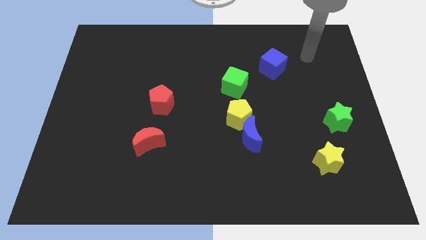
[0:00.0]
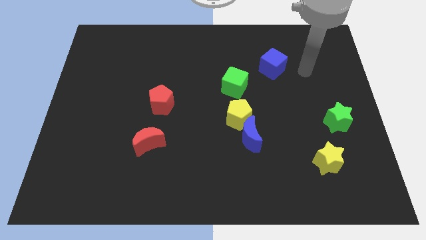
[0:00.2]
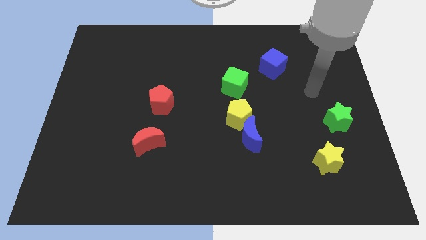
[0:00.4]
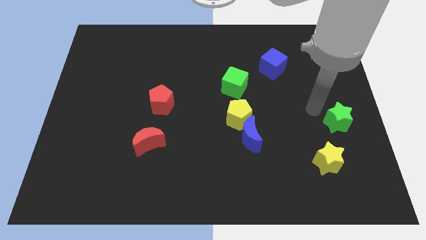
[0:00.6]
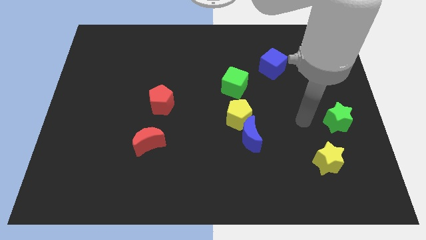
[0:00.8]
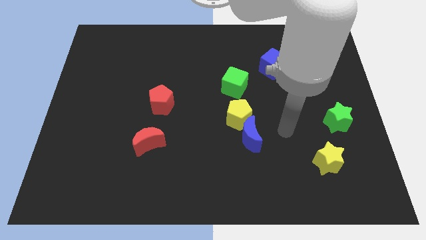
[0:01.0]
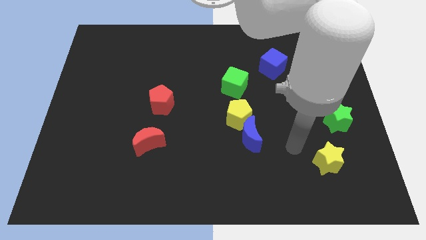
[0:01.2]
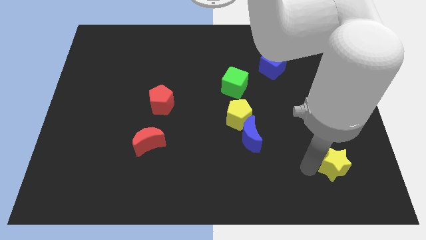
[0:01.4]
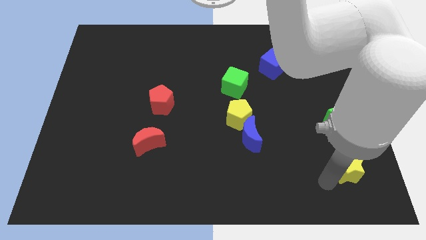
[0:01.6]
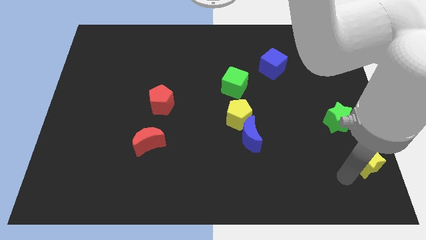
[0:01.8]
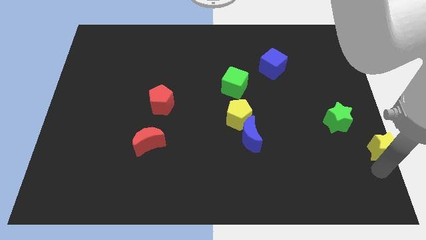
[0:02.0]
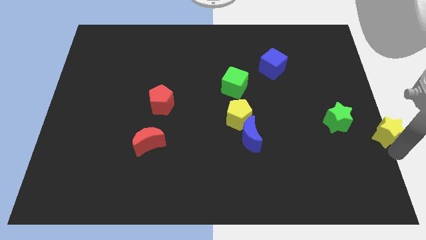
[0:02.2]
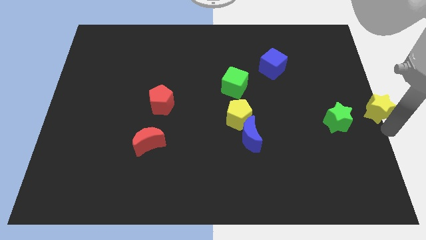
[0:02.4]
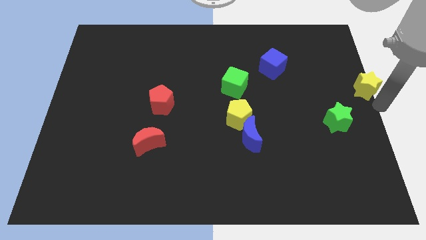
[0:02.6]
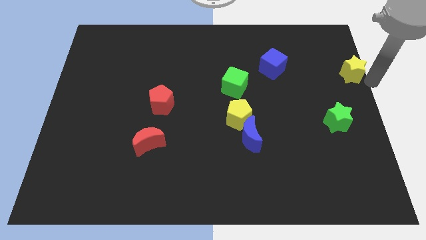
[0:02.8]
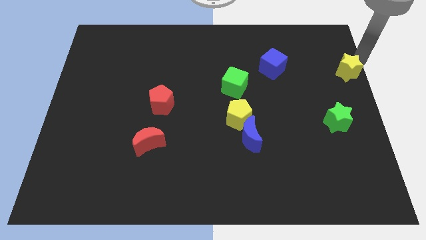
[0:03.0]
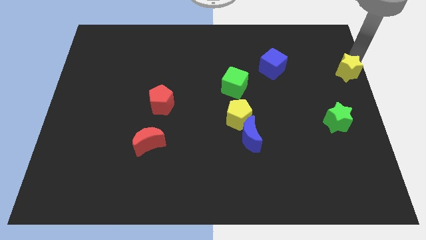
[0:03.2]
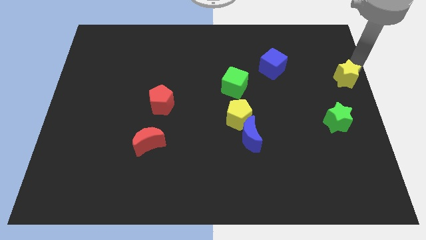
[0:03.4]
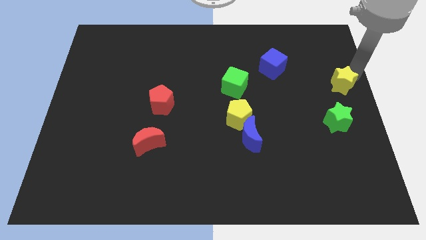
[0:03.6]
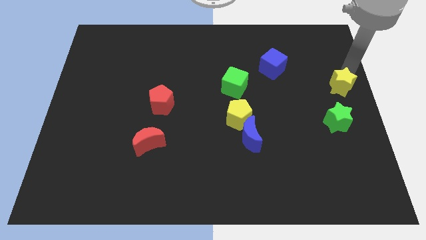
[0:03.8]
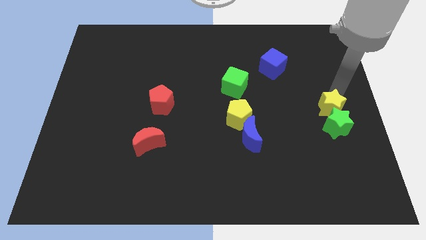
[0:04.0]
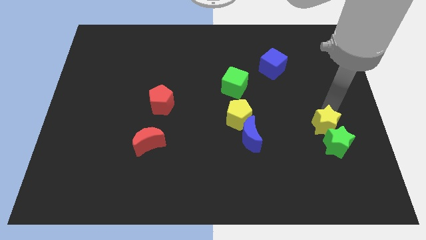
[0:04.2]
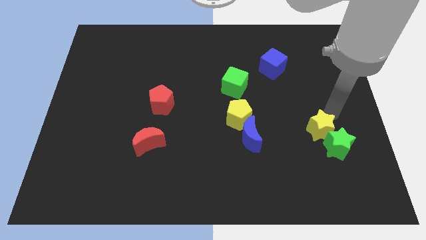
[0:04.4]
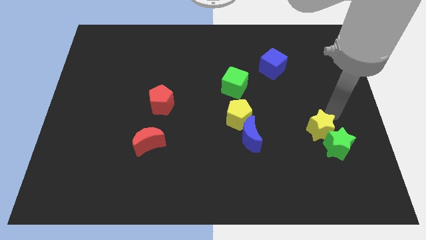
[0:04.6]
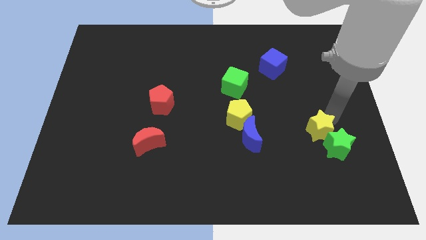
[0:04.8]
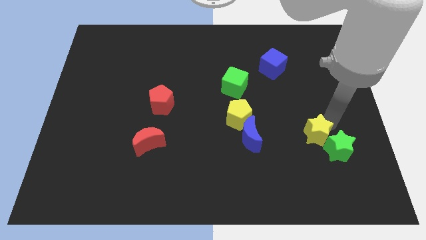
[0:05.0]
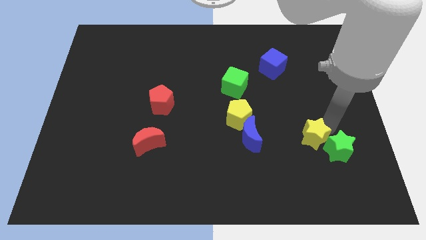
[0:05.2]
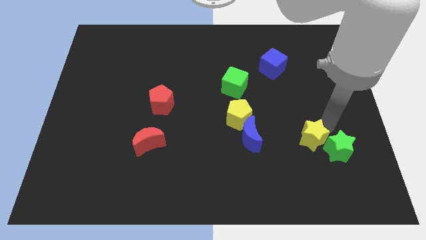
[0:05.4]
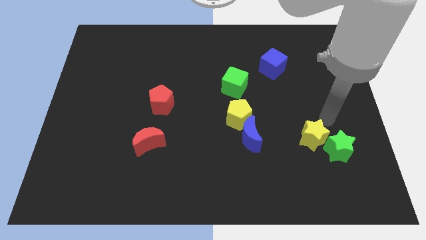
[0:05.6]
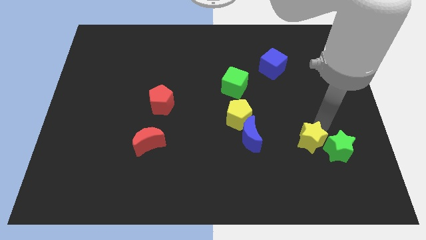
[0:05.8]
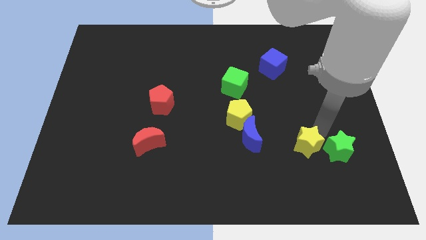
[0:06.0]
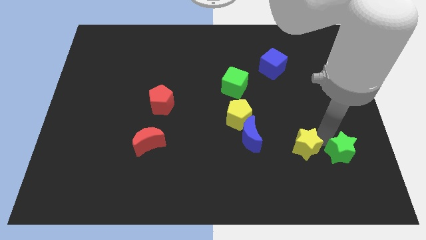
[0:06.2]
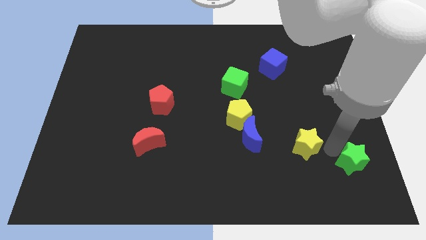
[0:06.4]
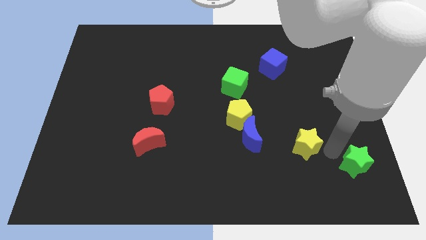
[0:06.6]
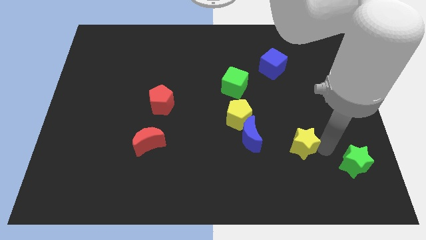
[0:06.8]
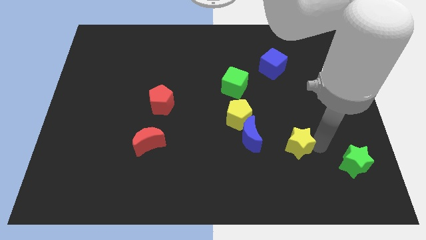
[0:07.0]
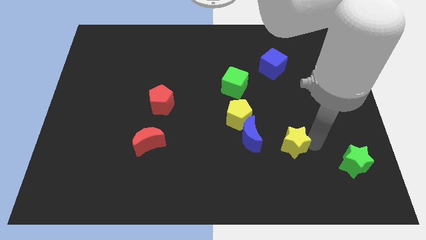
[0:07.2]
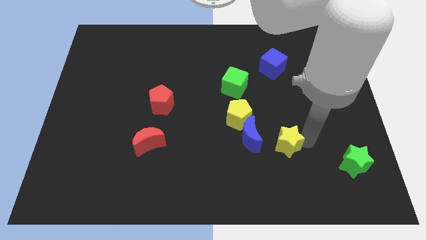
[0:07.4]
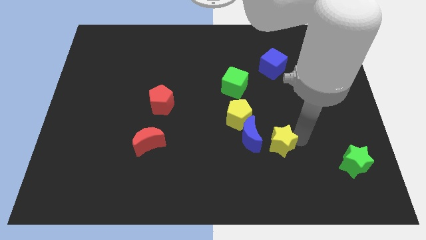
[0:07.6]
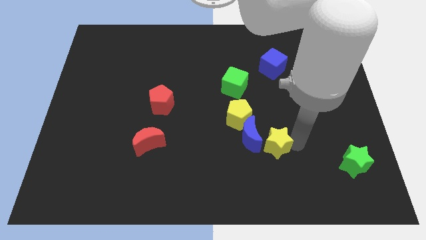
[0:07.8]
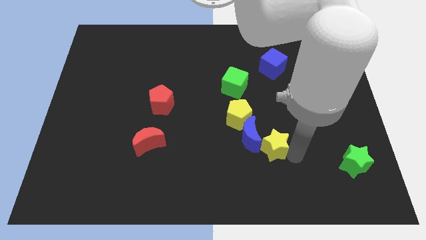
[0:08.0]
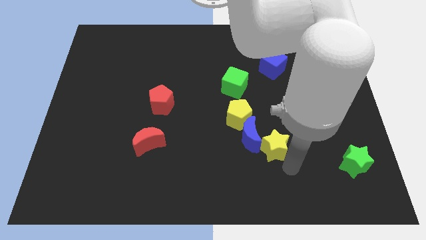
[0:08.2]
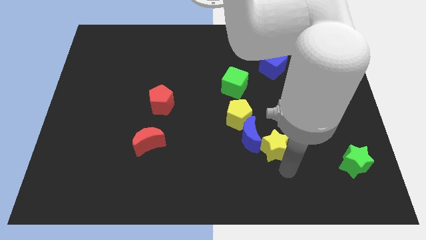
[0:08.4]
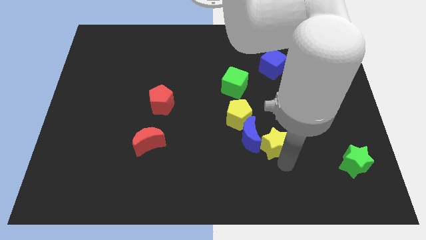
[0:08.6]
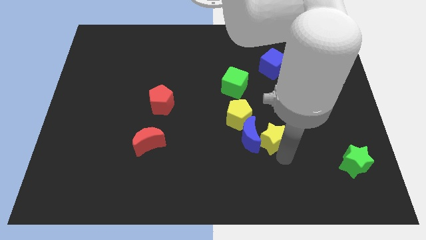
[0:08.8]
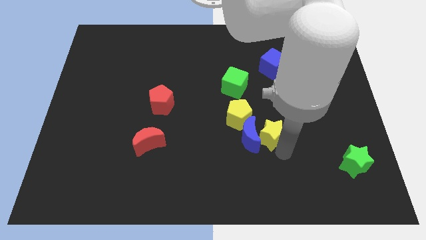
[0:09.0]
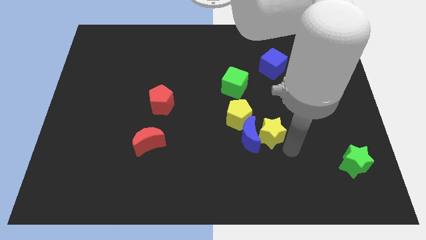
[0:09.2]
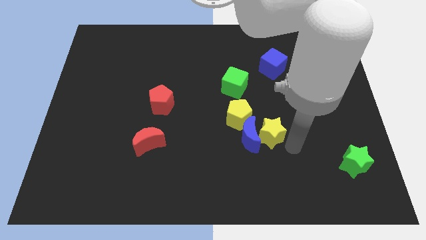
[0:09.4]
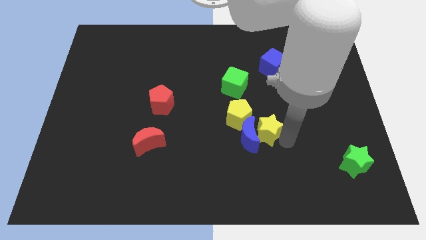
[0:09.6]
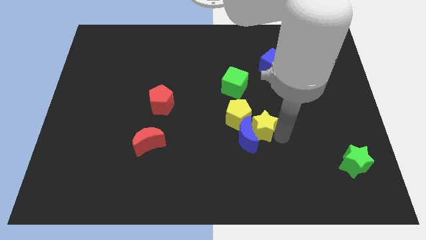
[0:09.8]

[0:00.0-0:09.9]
put the yellow star next to the yellow pentagon
